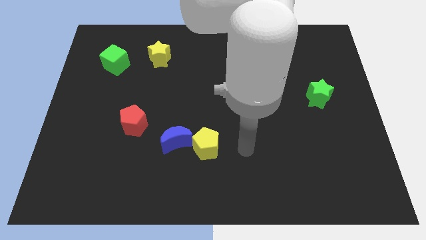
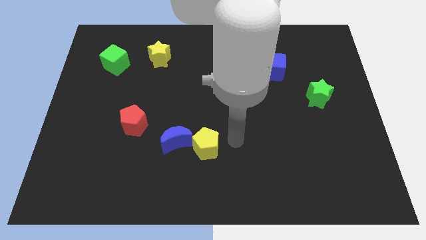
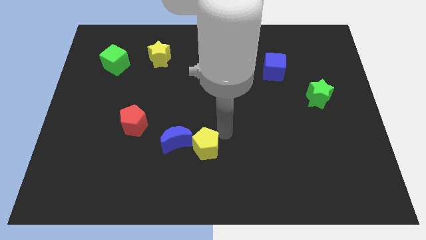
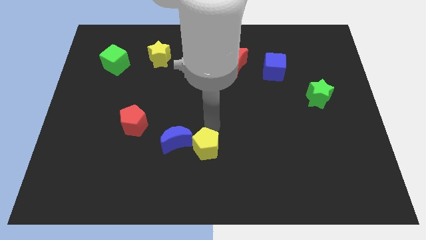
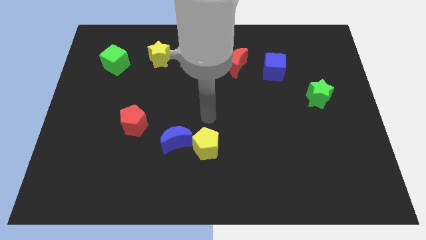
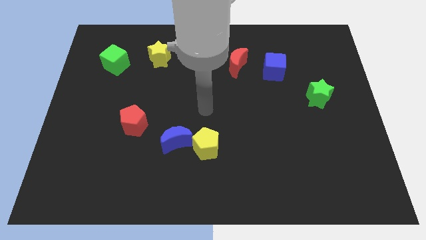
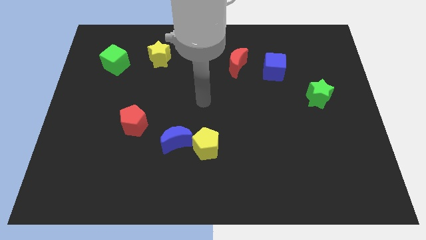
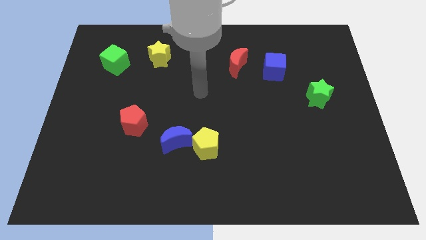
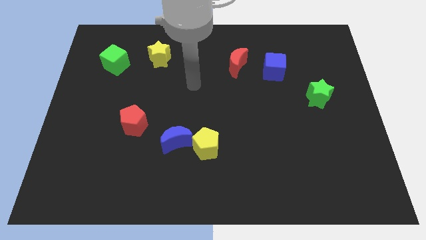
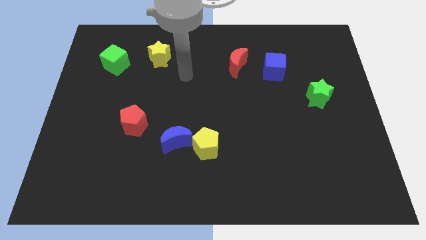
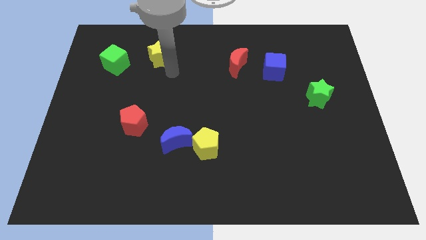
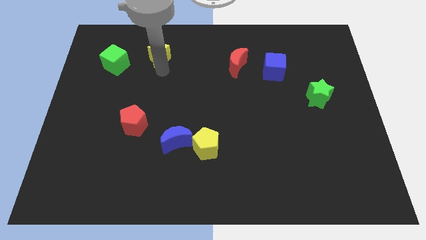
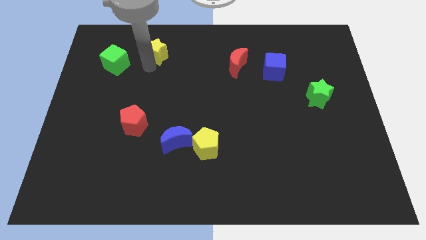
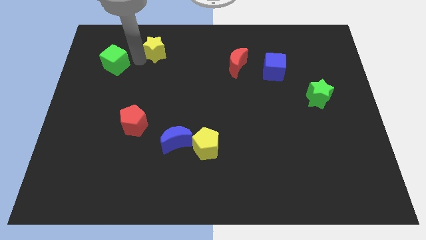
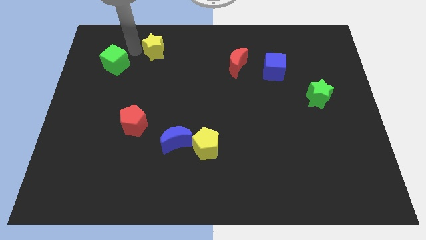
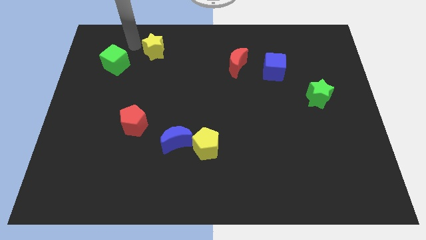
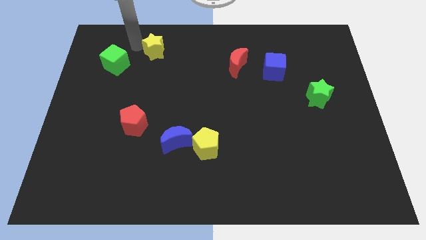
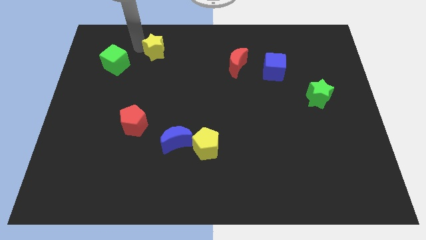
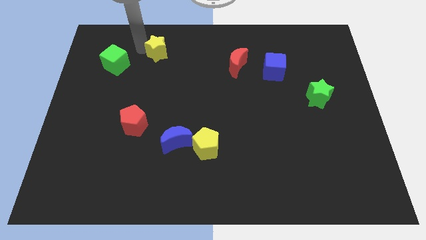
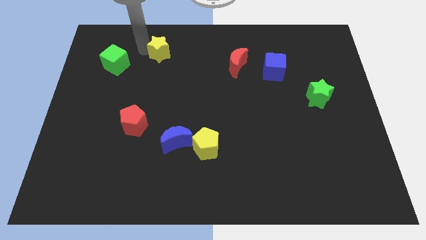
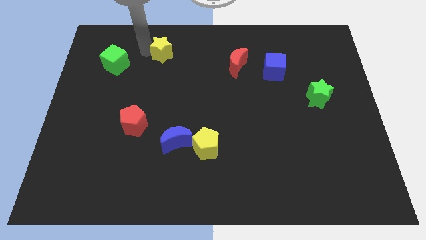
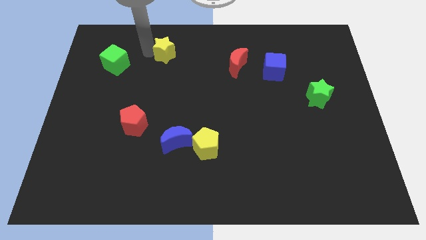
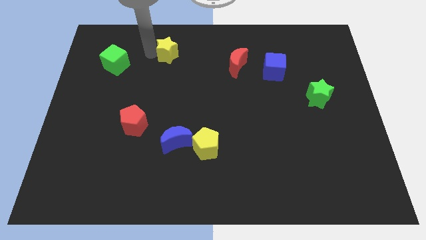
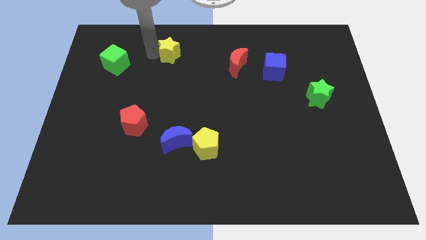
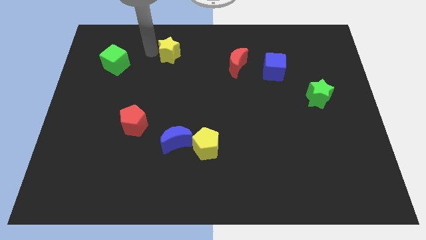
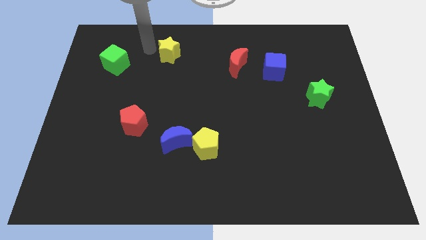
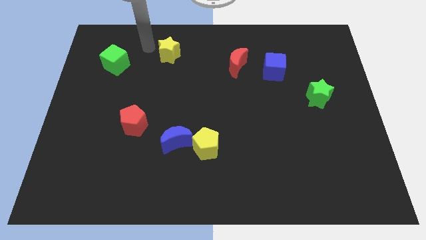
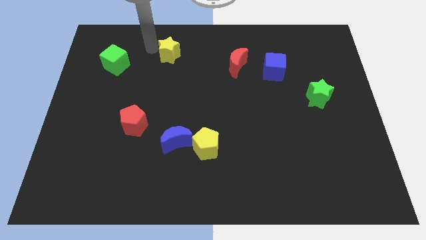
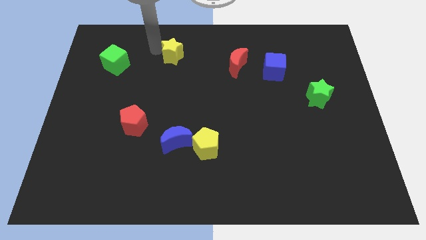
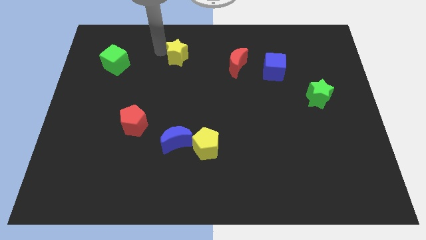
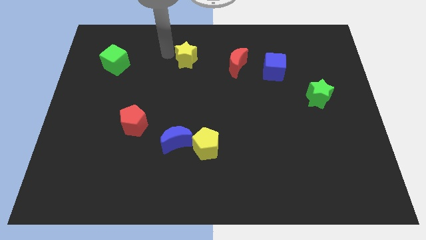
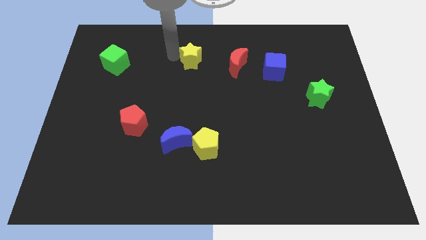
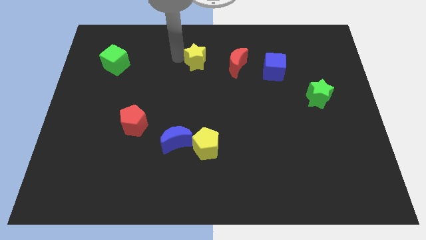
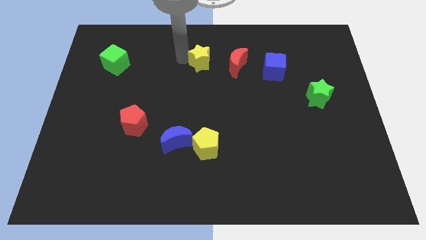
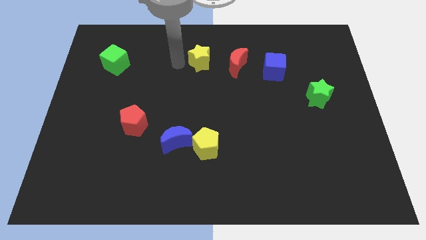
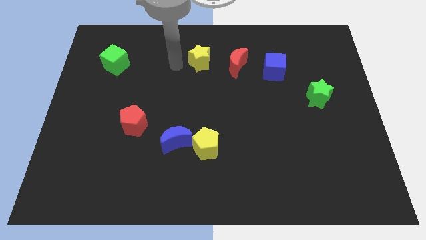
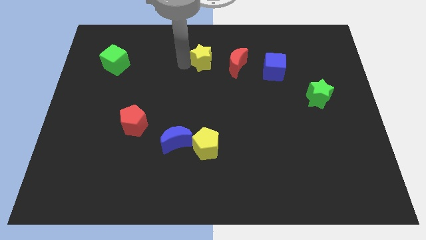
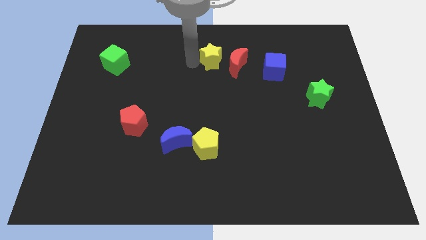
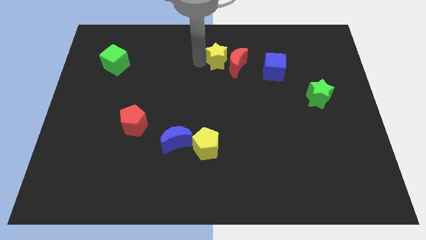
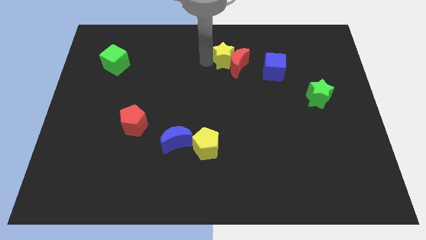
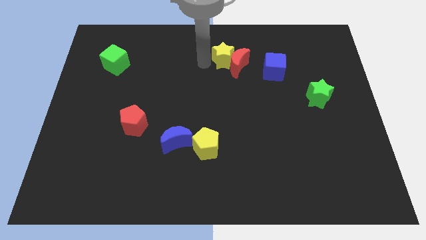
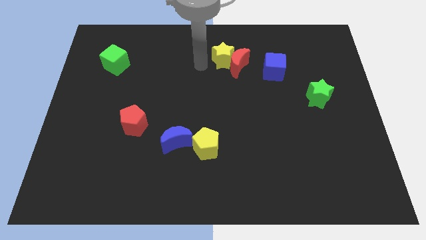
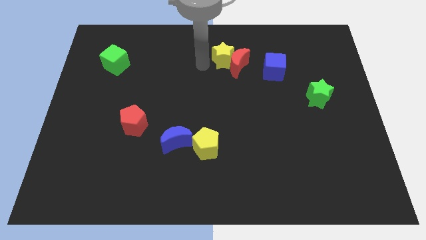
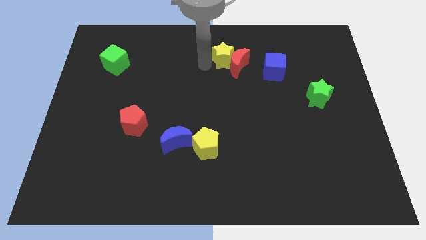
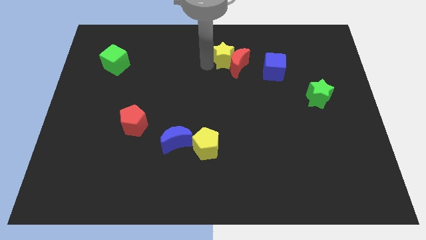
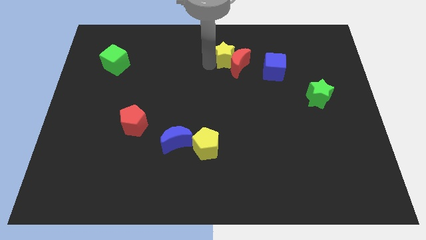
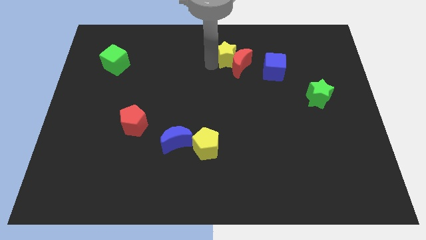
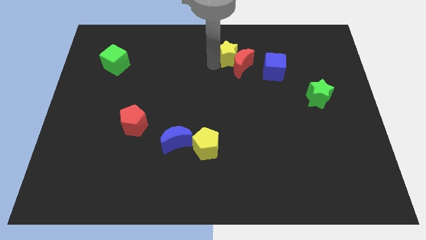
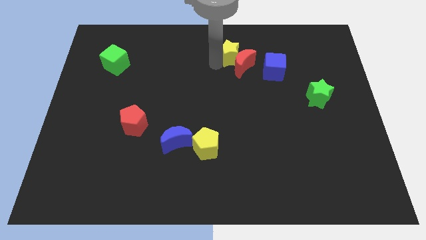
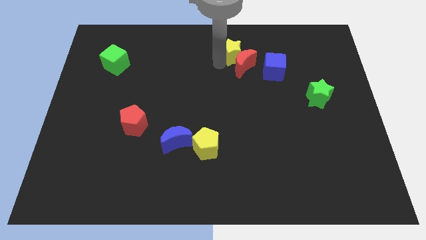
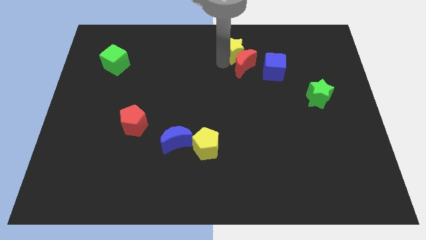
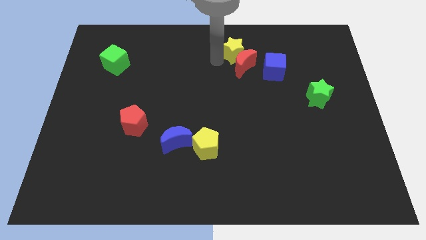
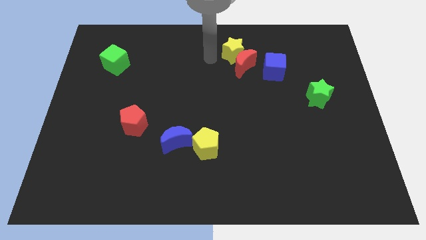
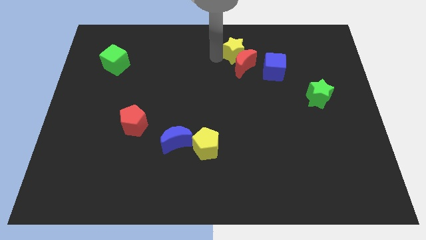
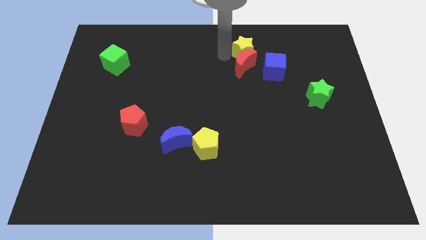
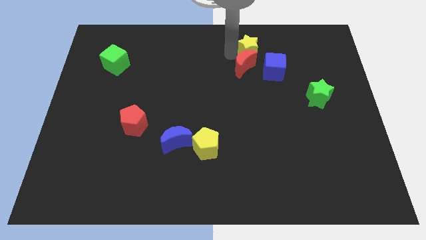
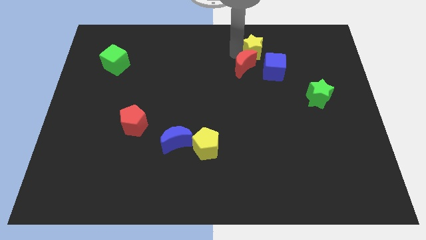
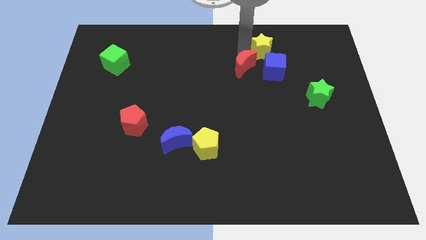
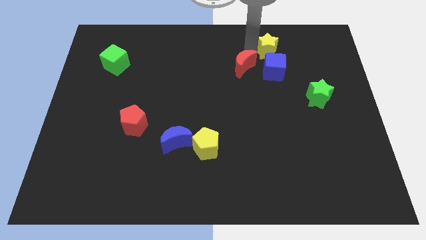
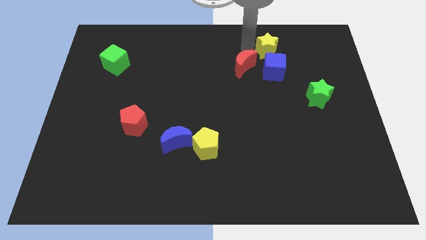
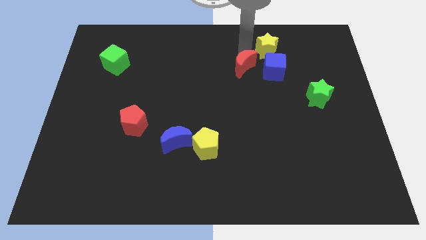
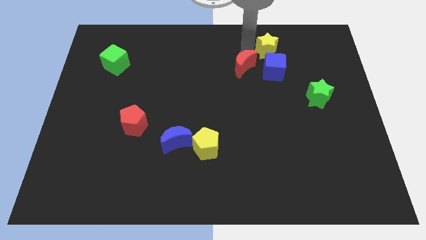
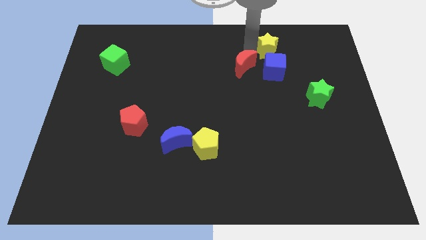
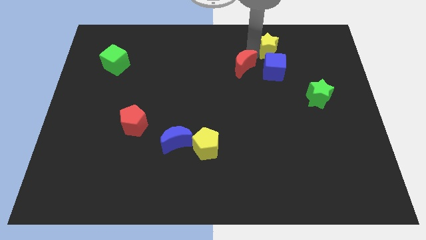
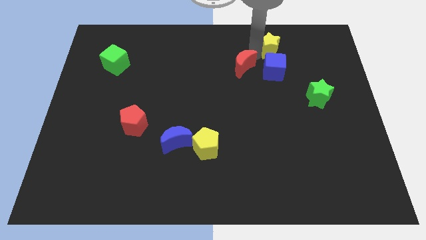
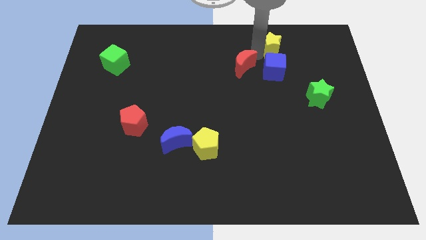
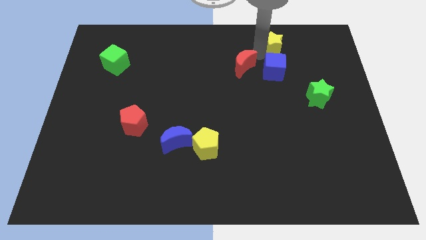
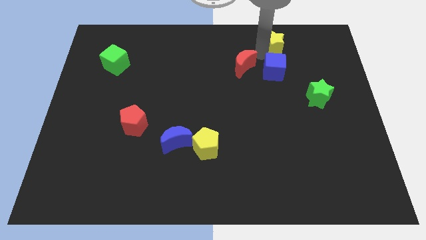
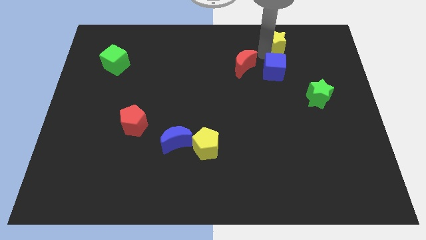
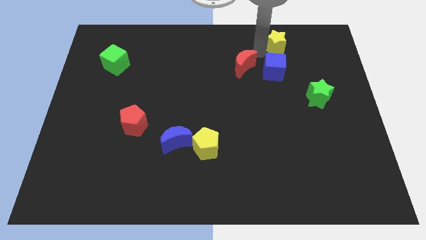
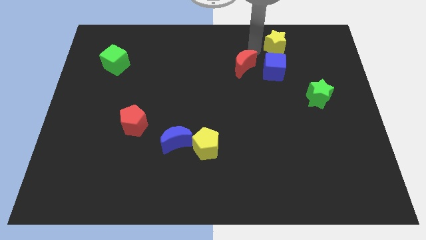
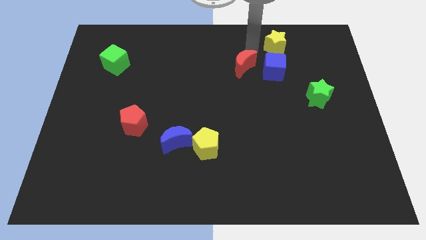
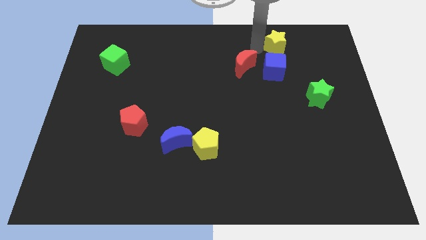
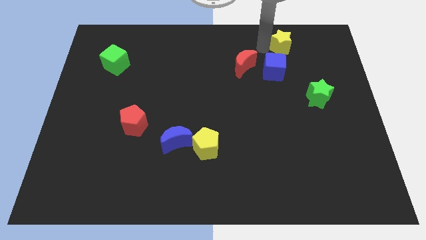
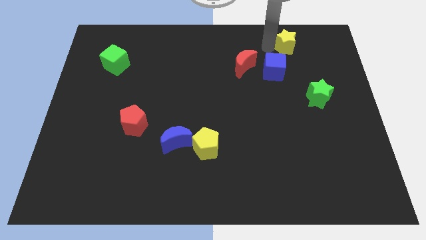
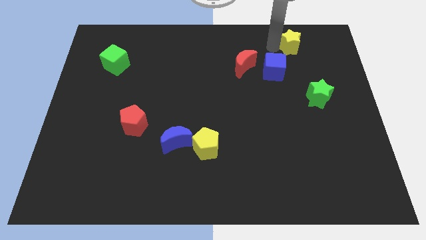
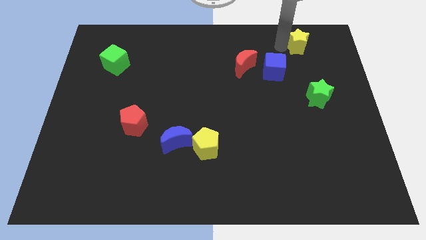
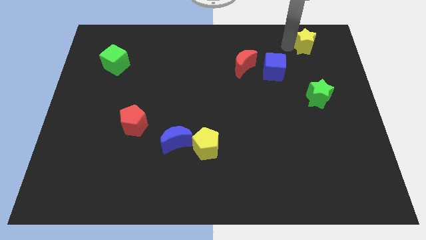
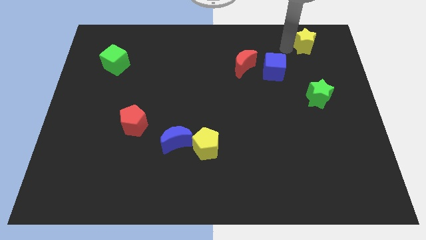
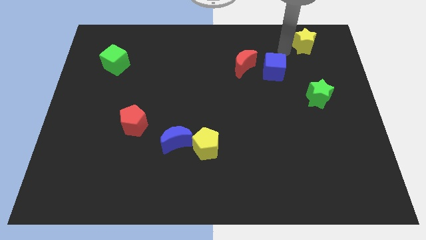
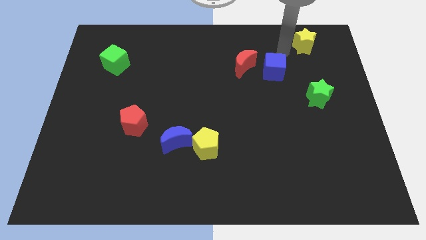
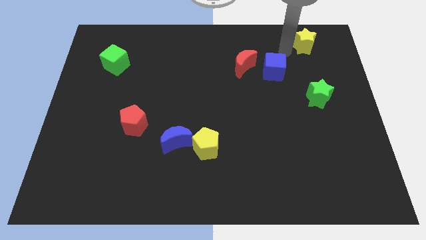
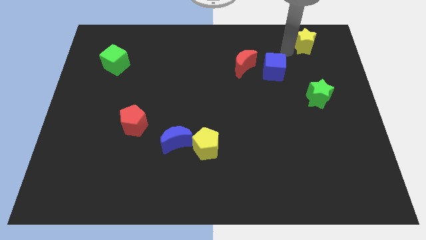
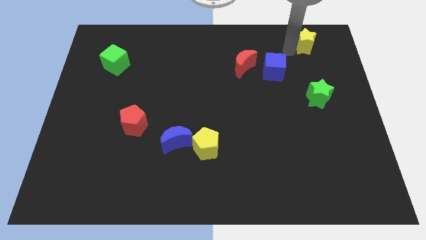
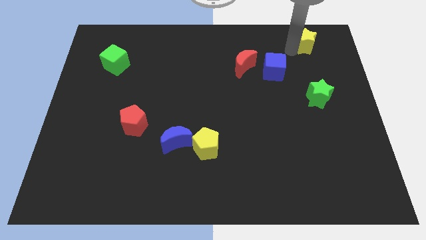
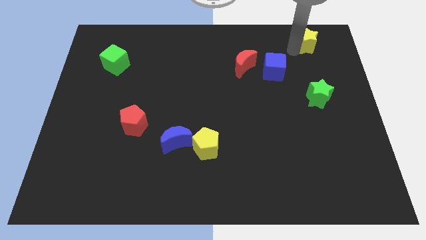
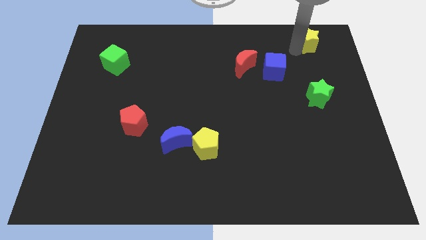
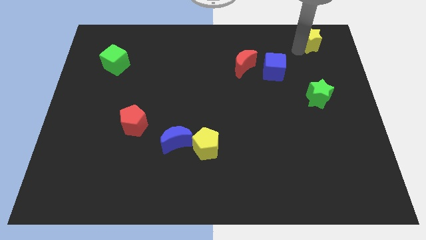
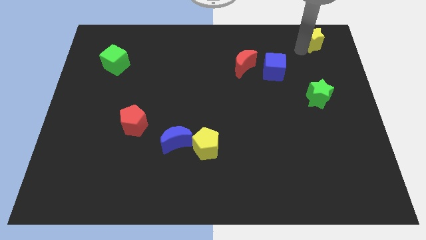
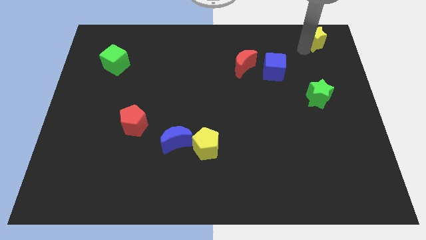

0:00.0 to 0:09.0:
push the yellow star to the top right corner
